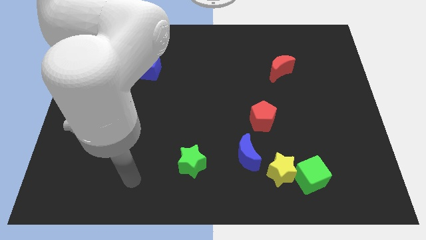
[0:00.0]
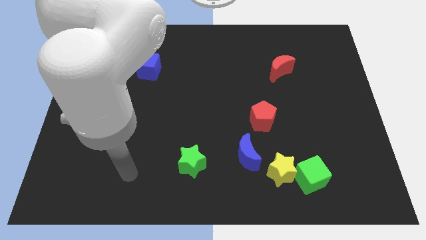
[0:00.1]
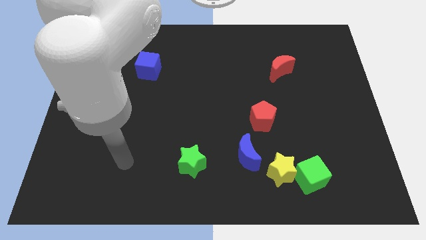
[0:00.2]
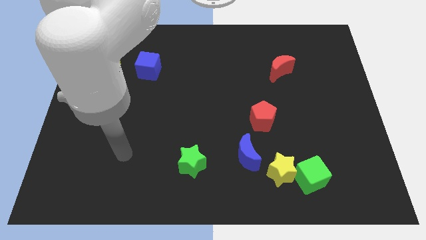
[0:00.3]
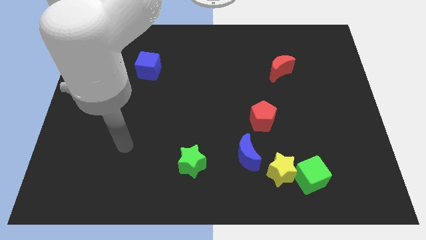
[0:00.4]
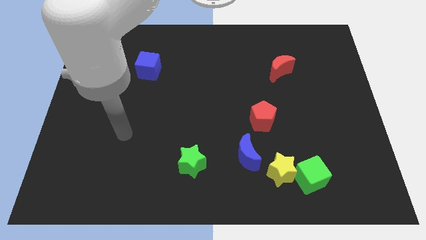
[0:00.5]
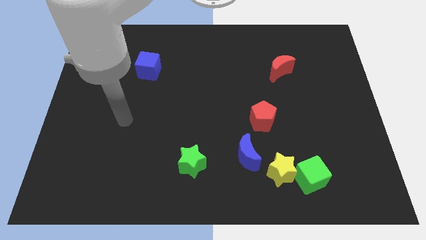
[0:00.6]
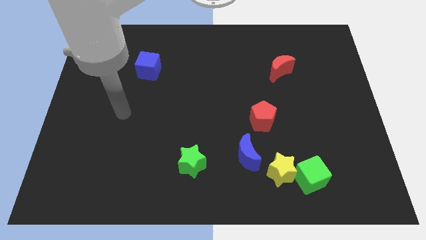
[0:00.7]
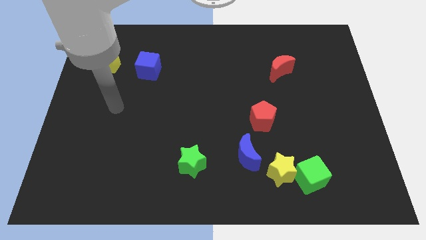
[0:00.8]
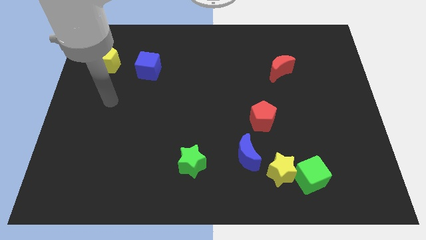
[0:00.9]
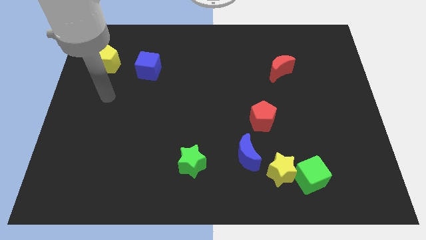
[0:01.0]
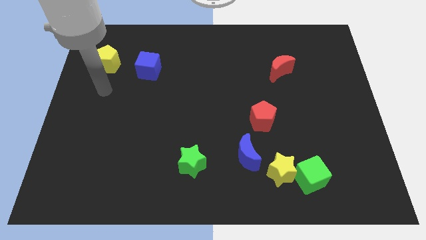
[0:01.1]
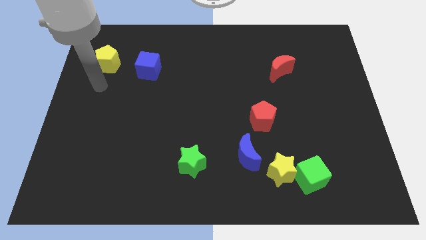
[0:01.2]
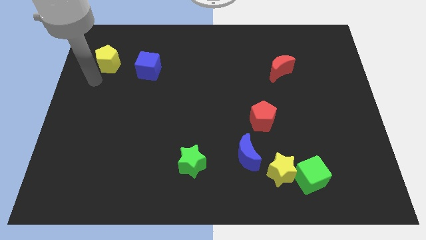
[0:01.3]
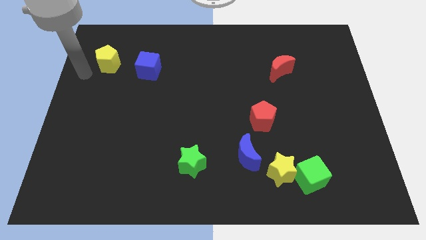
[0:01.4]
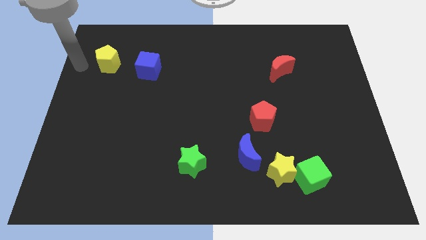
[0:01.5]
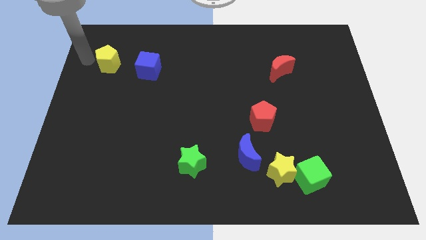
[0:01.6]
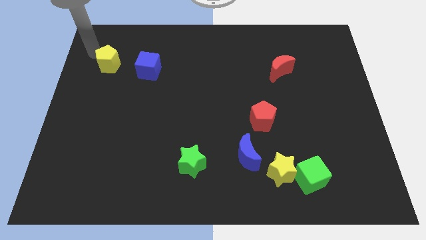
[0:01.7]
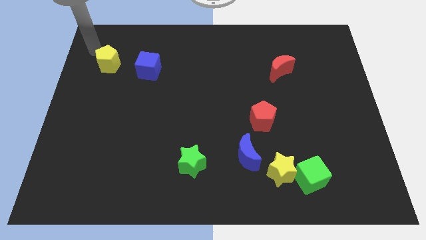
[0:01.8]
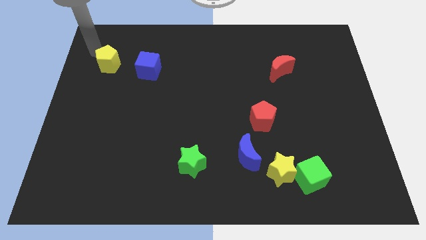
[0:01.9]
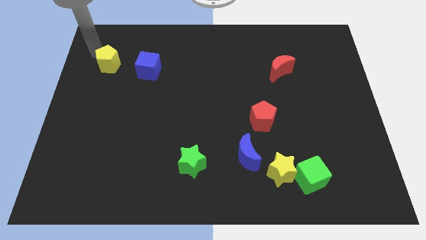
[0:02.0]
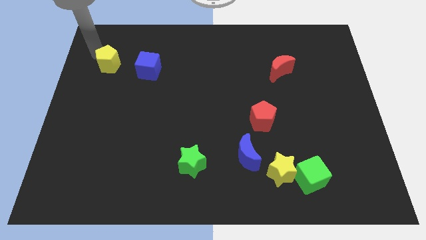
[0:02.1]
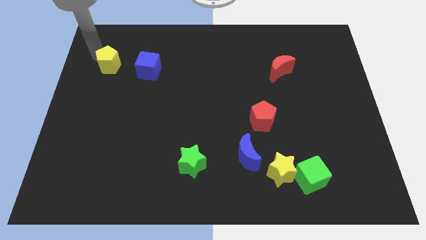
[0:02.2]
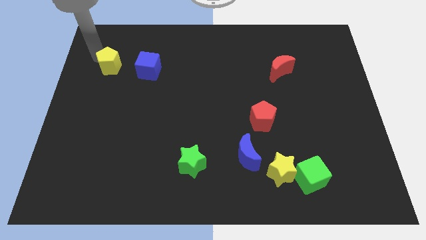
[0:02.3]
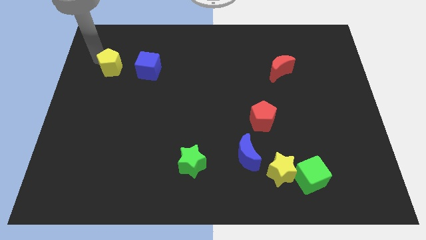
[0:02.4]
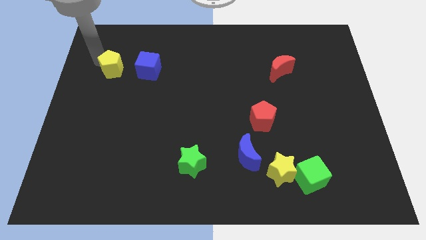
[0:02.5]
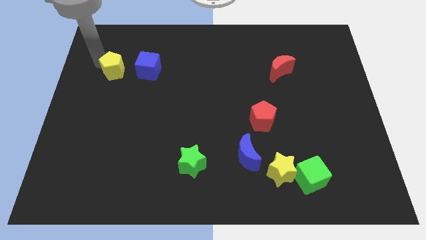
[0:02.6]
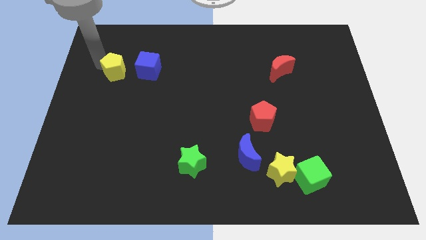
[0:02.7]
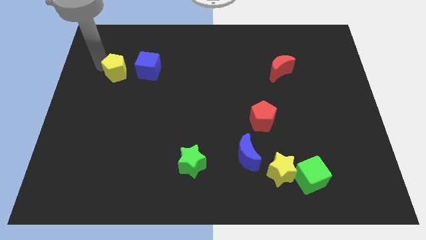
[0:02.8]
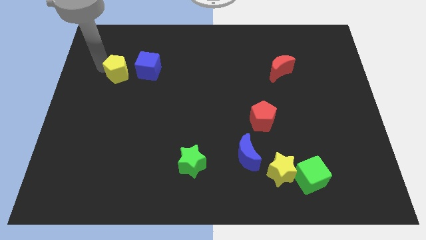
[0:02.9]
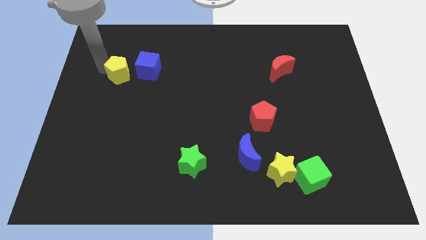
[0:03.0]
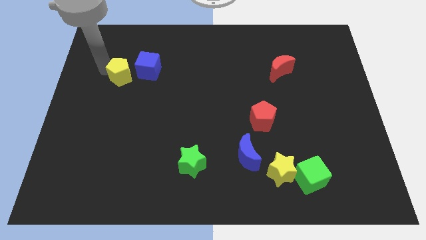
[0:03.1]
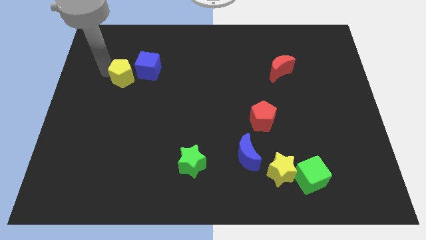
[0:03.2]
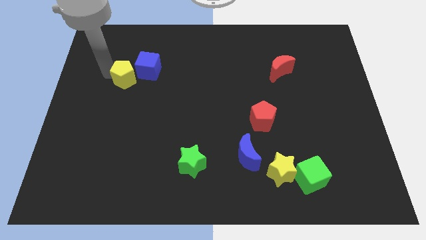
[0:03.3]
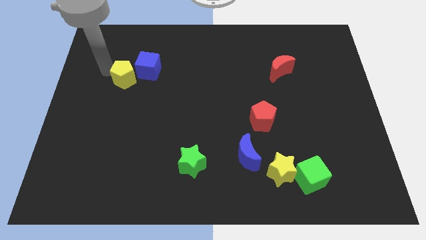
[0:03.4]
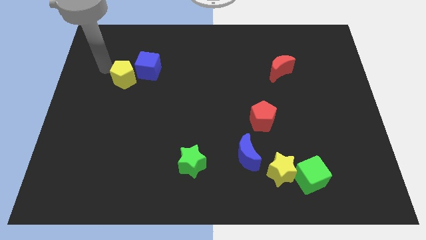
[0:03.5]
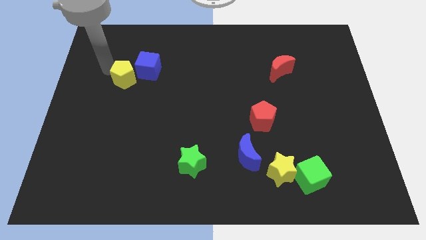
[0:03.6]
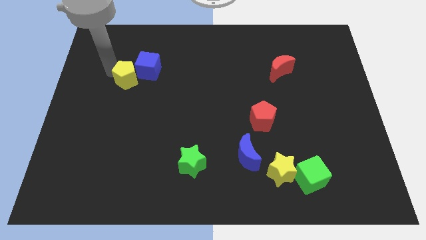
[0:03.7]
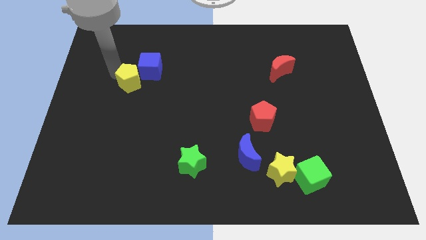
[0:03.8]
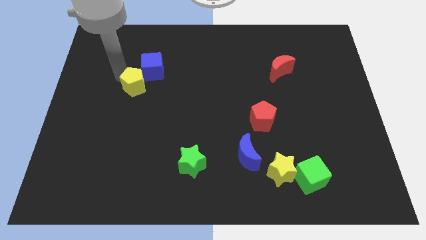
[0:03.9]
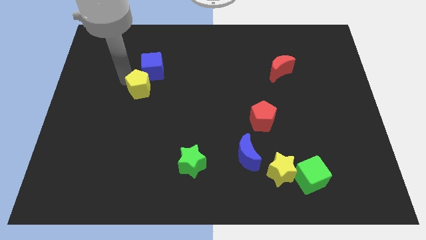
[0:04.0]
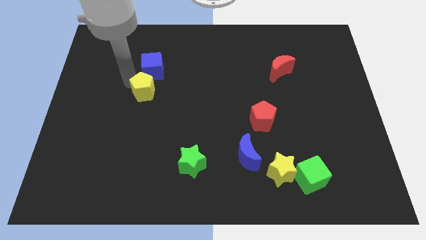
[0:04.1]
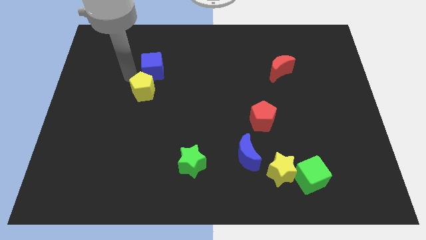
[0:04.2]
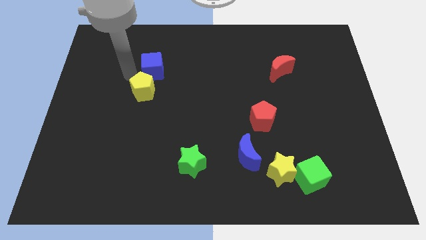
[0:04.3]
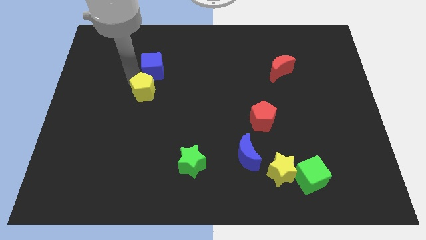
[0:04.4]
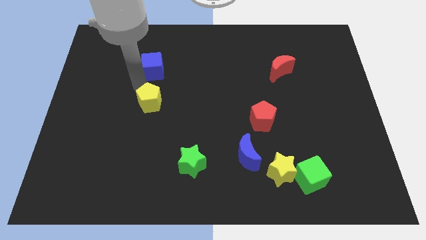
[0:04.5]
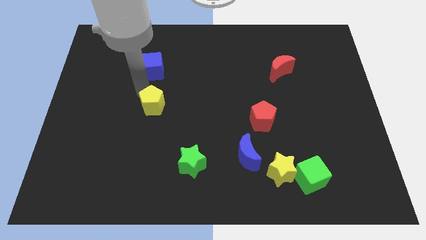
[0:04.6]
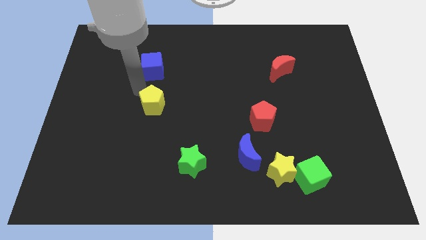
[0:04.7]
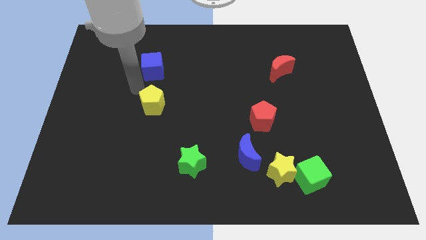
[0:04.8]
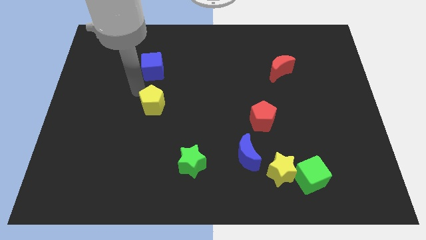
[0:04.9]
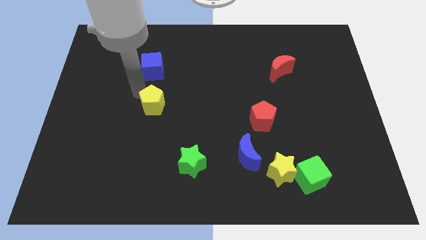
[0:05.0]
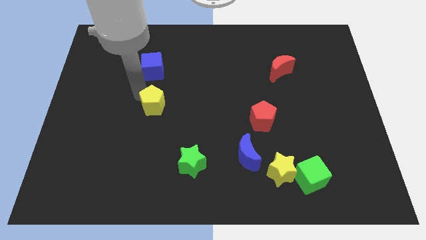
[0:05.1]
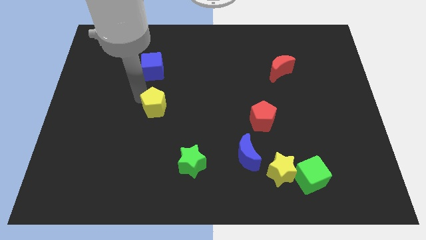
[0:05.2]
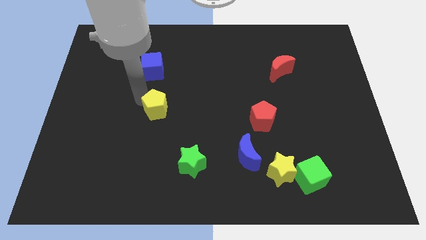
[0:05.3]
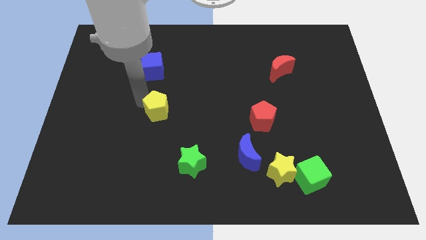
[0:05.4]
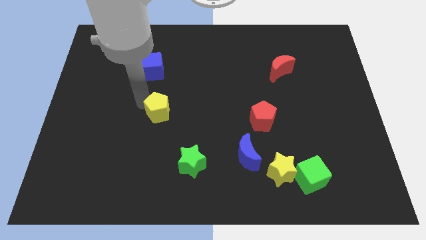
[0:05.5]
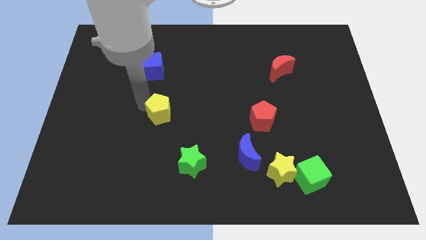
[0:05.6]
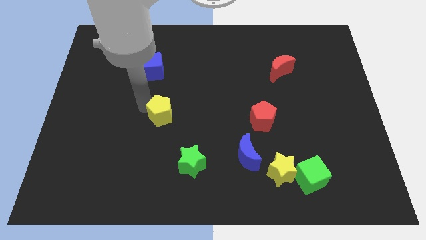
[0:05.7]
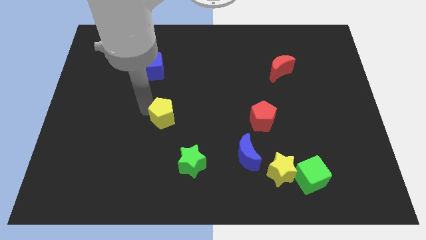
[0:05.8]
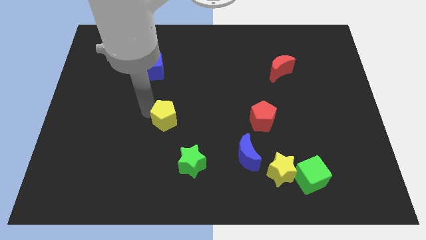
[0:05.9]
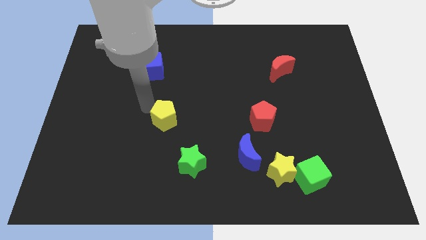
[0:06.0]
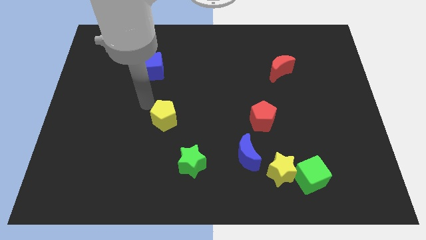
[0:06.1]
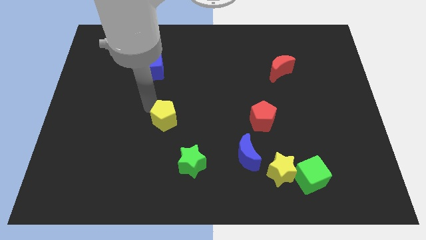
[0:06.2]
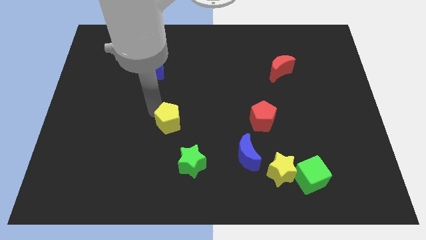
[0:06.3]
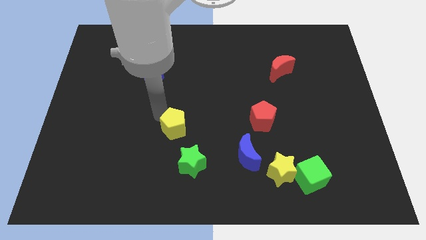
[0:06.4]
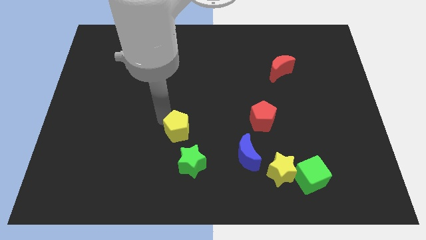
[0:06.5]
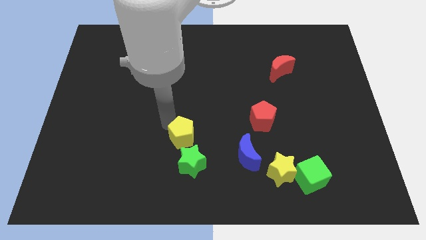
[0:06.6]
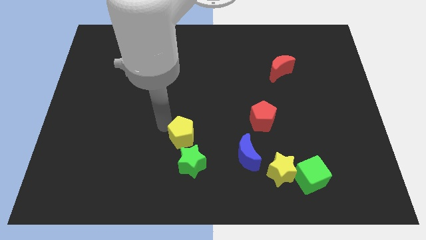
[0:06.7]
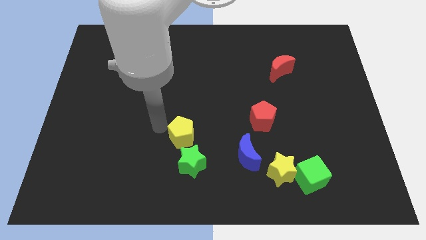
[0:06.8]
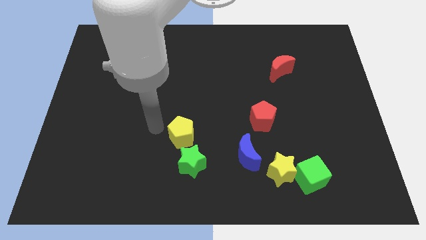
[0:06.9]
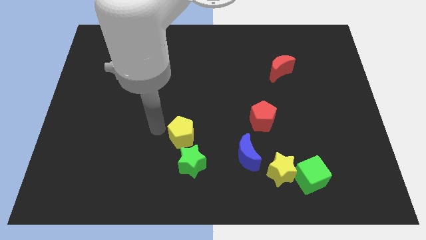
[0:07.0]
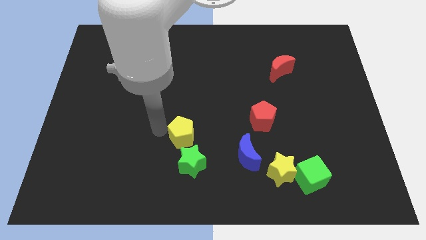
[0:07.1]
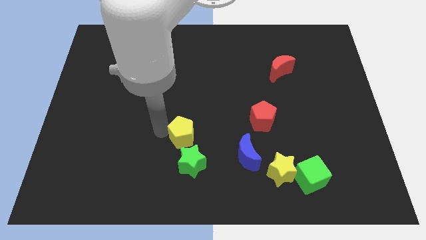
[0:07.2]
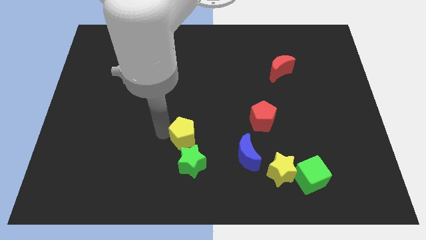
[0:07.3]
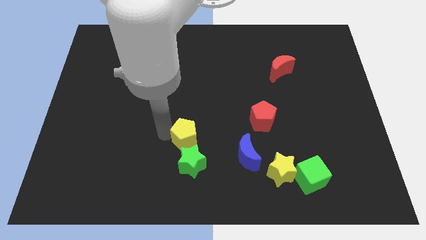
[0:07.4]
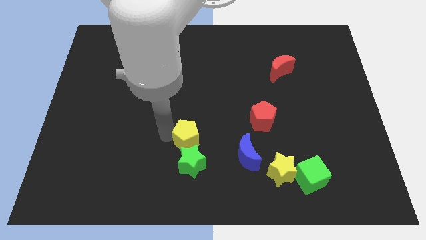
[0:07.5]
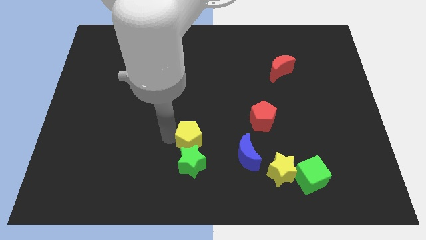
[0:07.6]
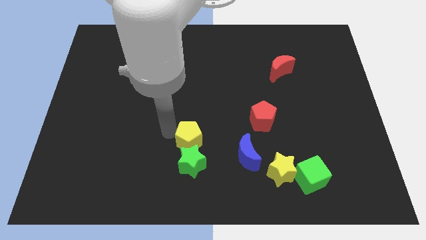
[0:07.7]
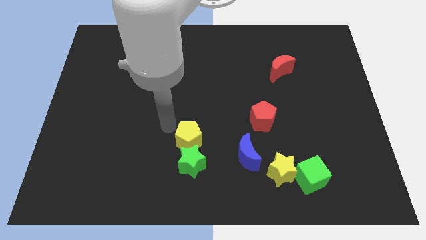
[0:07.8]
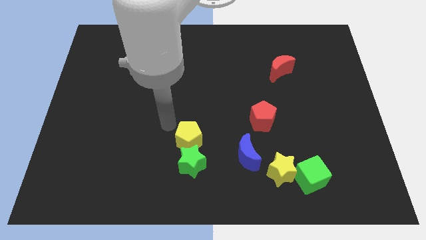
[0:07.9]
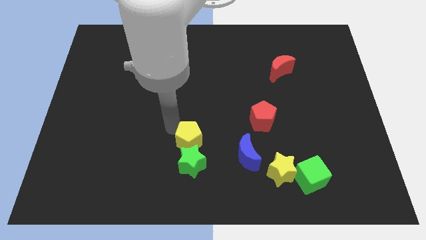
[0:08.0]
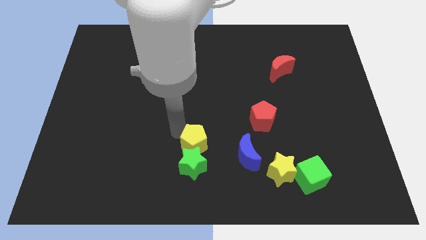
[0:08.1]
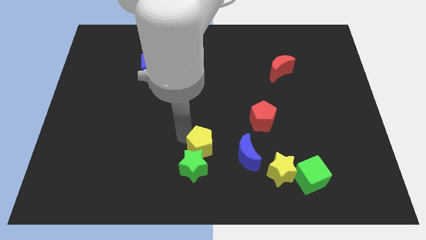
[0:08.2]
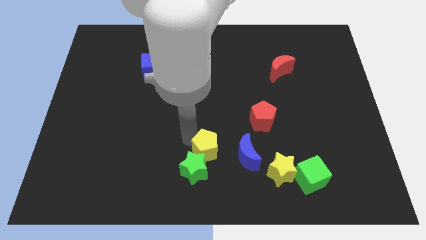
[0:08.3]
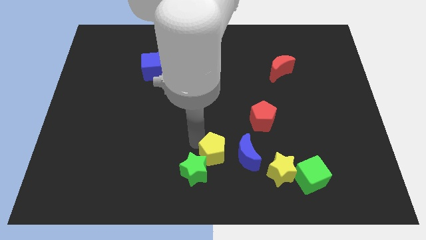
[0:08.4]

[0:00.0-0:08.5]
put the yellow pentagon to the bottom side
